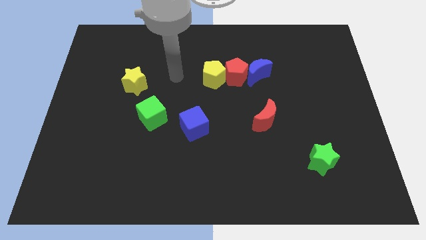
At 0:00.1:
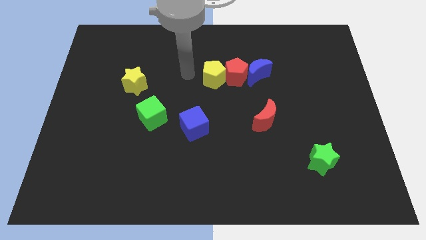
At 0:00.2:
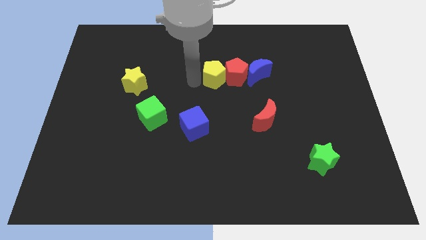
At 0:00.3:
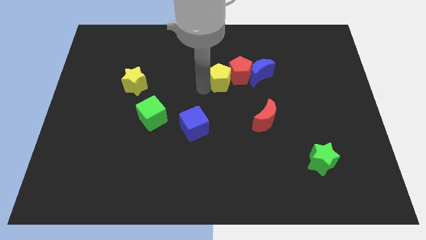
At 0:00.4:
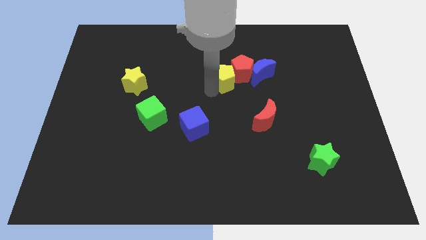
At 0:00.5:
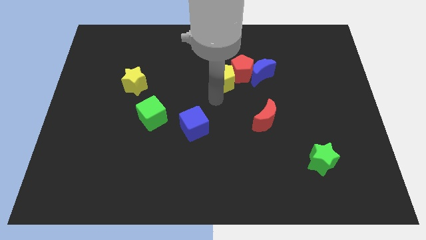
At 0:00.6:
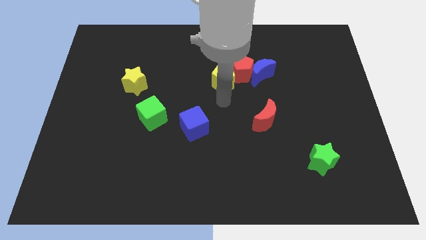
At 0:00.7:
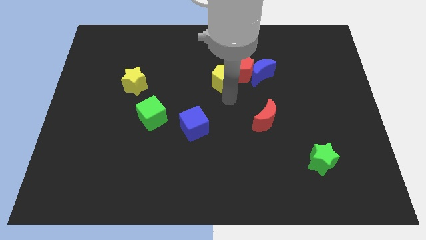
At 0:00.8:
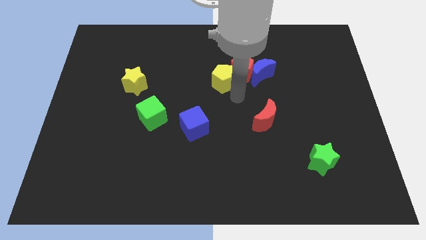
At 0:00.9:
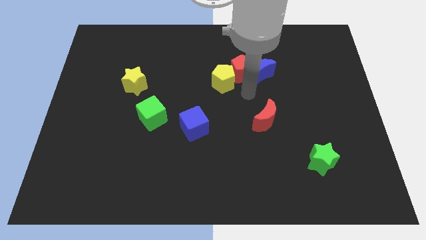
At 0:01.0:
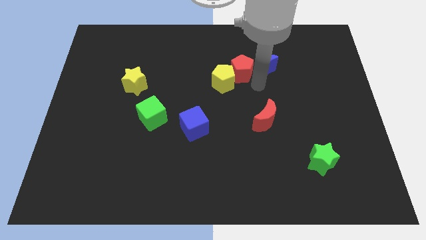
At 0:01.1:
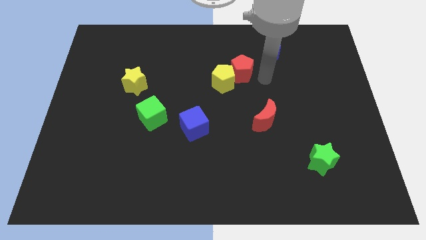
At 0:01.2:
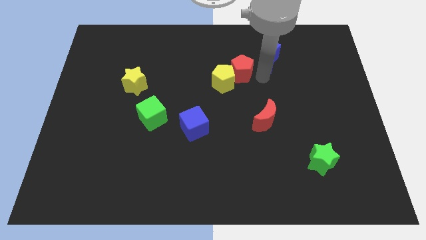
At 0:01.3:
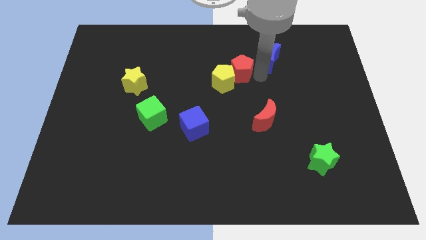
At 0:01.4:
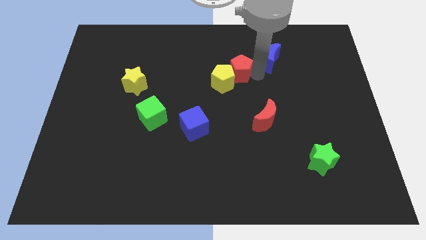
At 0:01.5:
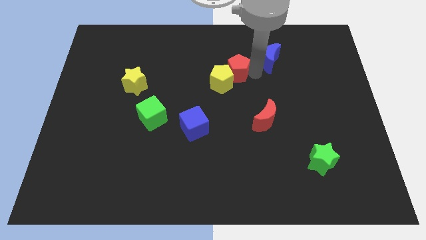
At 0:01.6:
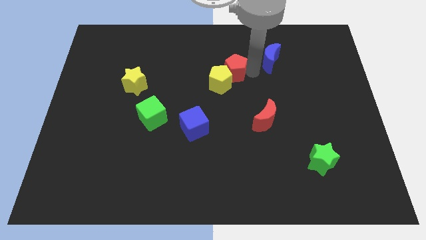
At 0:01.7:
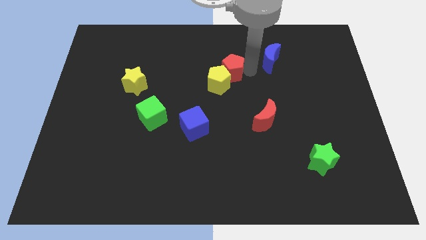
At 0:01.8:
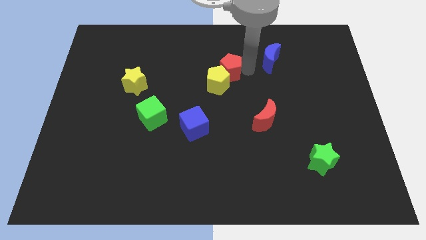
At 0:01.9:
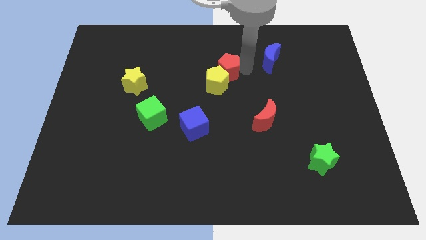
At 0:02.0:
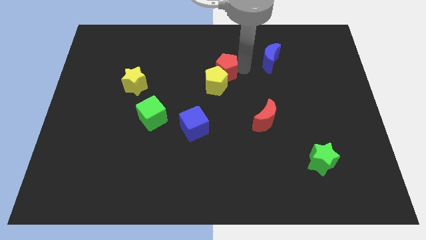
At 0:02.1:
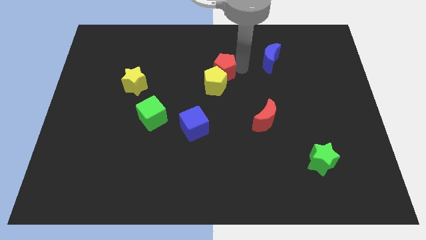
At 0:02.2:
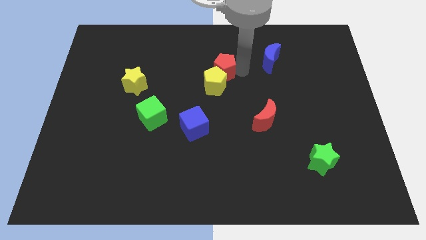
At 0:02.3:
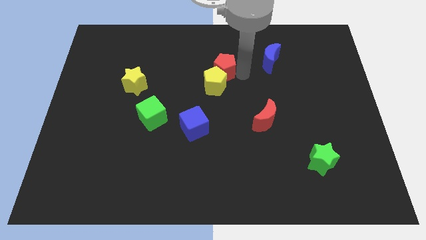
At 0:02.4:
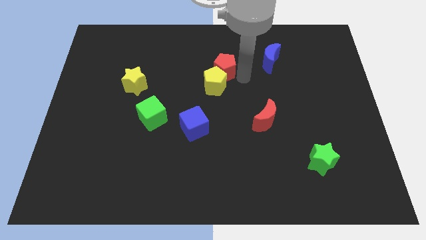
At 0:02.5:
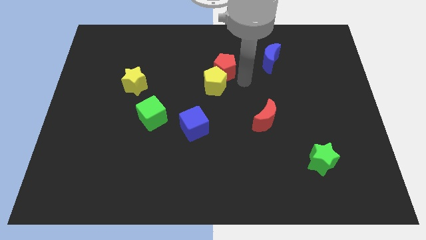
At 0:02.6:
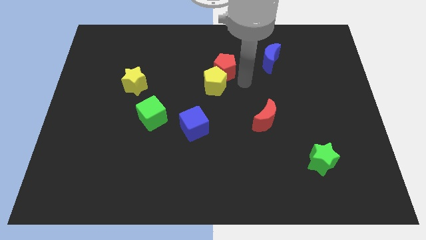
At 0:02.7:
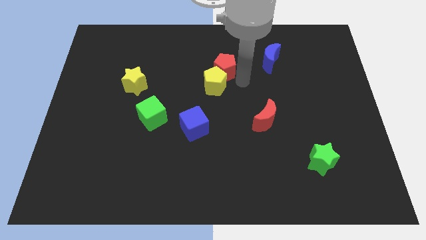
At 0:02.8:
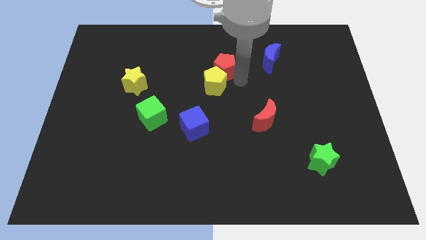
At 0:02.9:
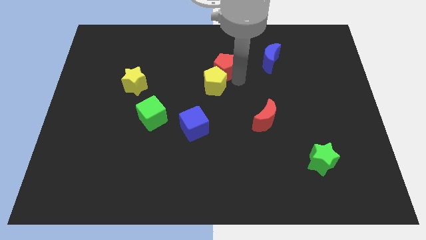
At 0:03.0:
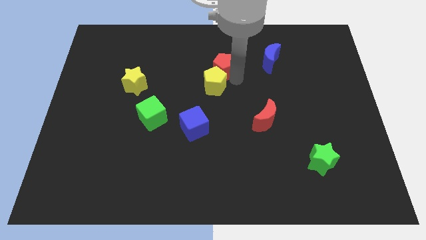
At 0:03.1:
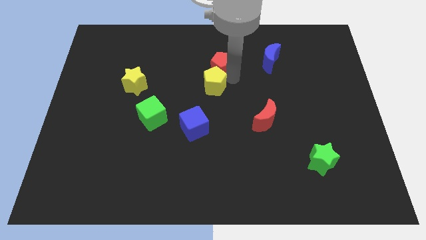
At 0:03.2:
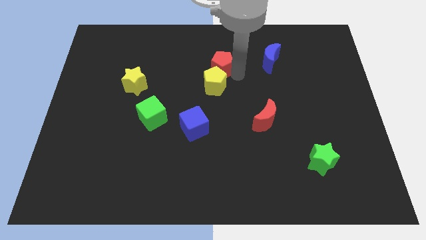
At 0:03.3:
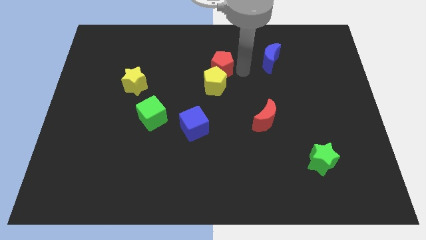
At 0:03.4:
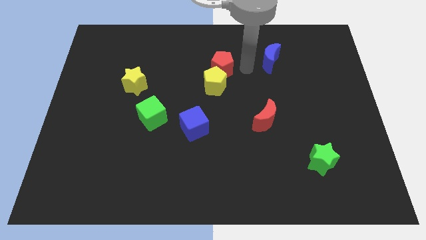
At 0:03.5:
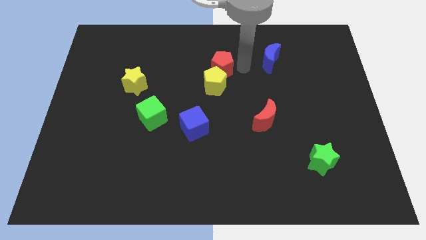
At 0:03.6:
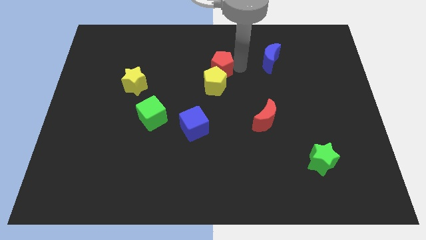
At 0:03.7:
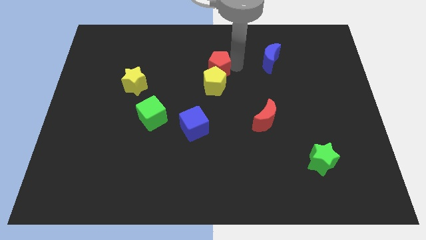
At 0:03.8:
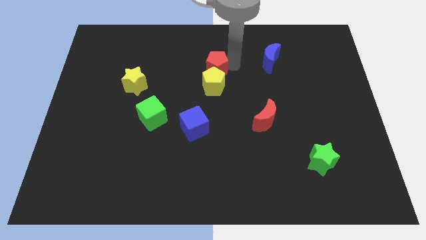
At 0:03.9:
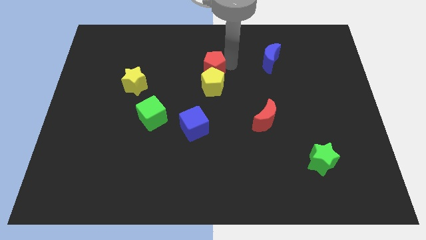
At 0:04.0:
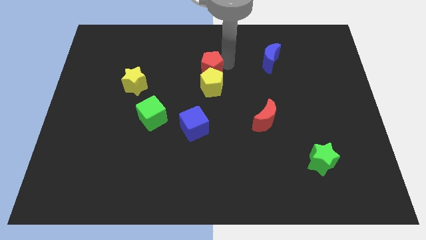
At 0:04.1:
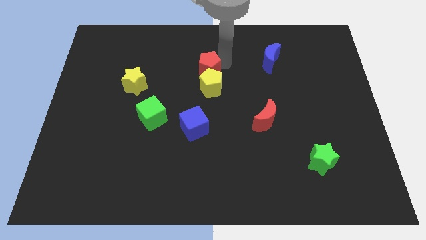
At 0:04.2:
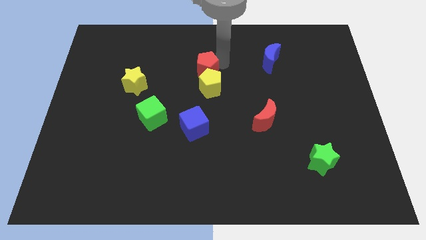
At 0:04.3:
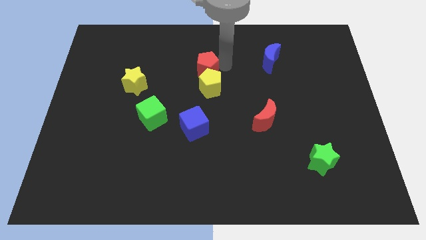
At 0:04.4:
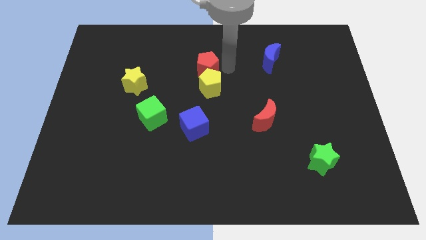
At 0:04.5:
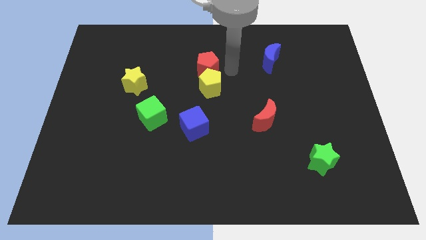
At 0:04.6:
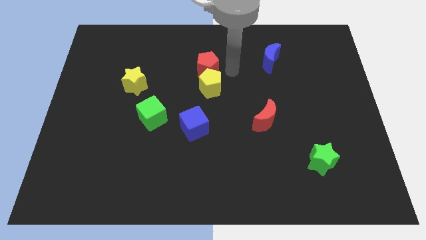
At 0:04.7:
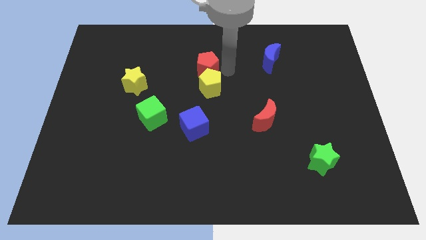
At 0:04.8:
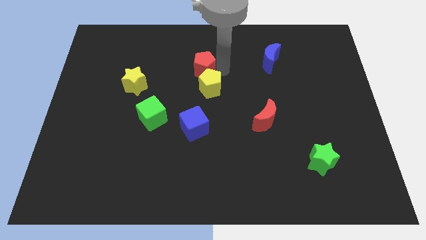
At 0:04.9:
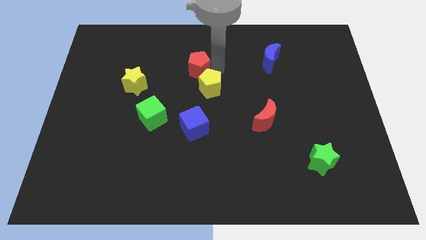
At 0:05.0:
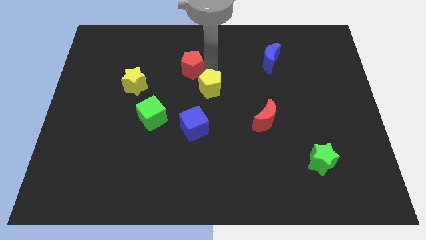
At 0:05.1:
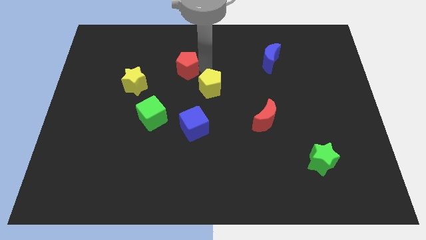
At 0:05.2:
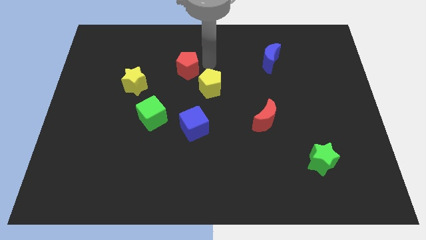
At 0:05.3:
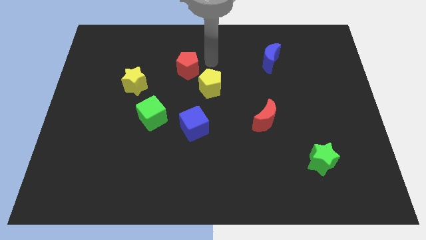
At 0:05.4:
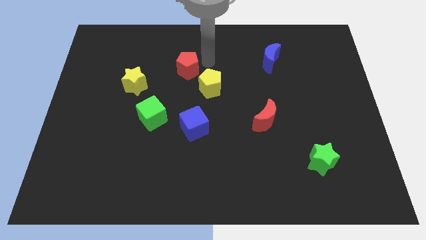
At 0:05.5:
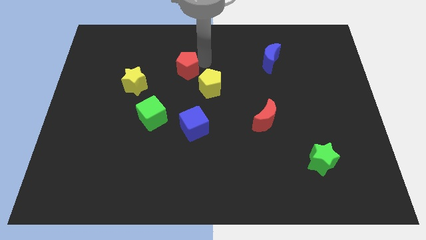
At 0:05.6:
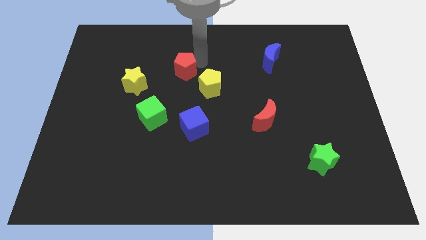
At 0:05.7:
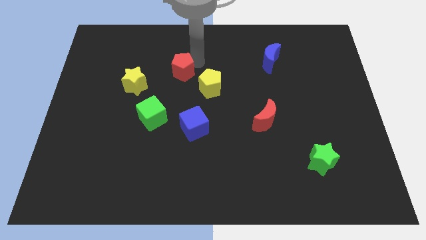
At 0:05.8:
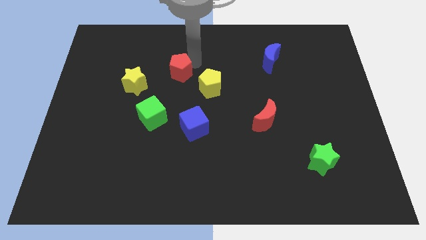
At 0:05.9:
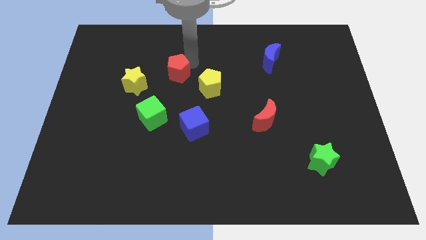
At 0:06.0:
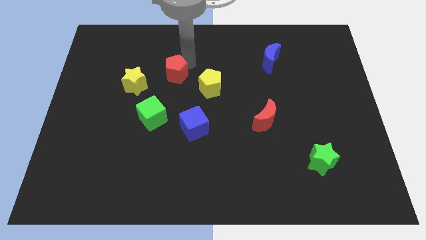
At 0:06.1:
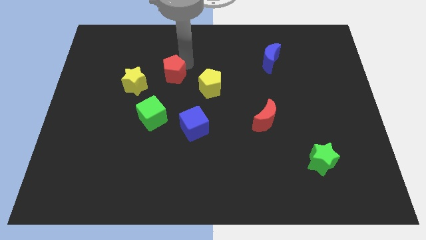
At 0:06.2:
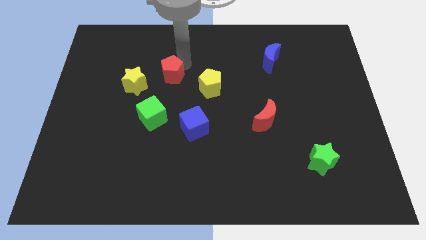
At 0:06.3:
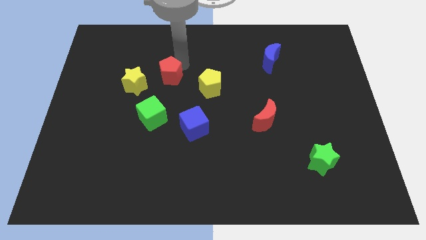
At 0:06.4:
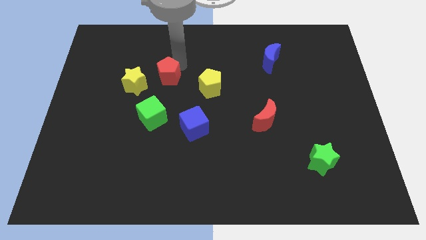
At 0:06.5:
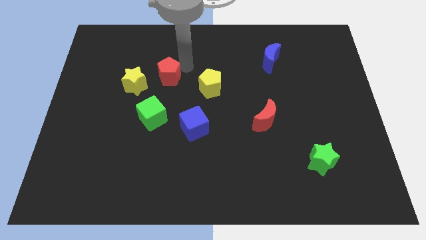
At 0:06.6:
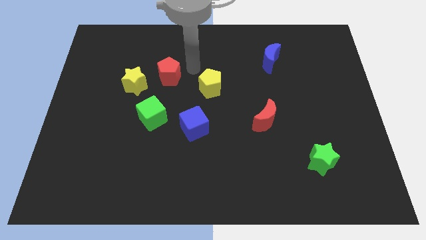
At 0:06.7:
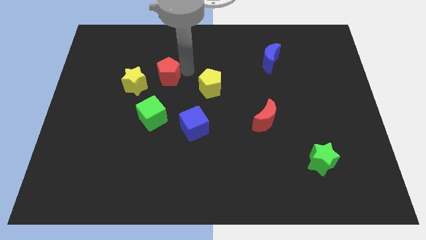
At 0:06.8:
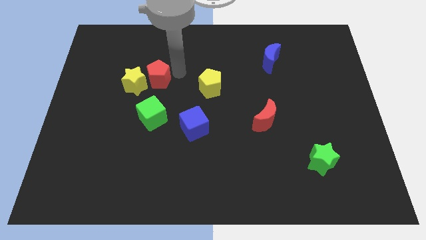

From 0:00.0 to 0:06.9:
push the red pentagon close to the yellow star

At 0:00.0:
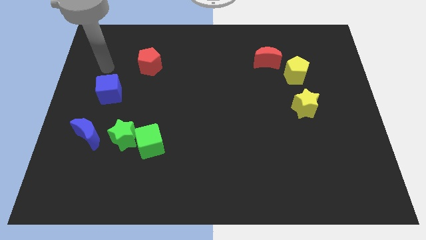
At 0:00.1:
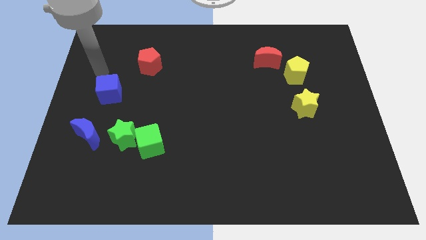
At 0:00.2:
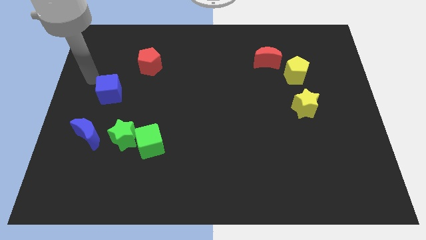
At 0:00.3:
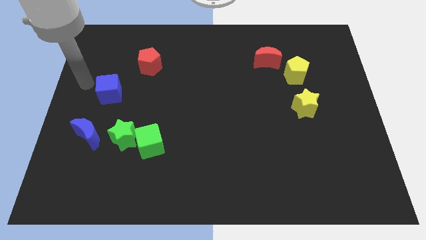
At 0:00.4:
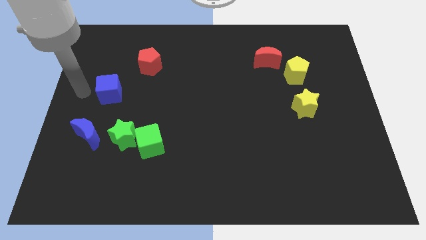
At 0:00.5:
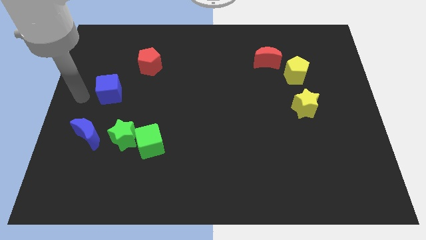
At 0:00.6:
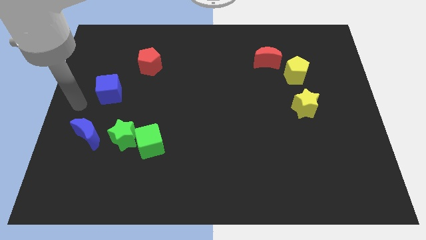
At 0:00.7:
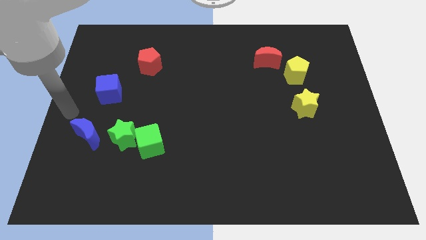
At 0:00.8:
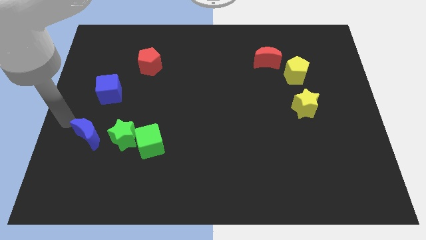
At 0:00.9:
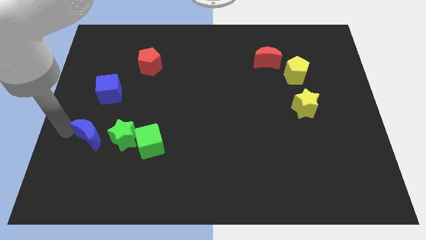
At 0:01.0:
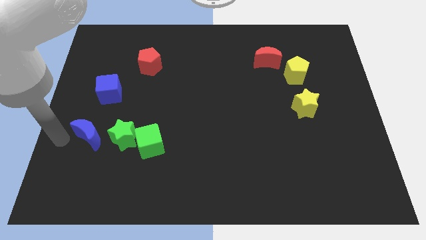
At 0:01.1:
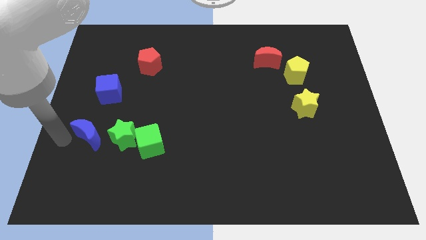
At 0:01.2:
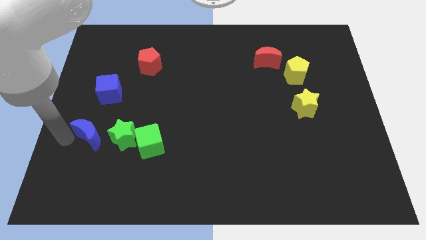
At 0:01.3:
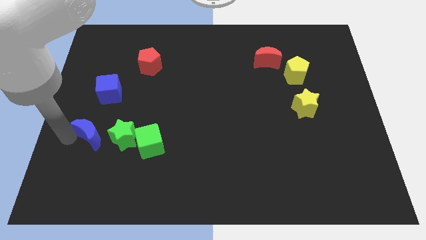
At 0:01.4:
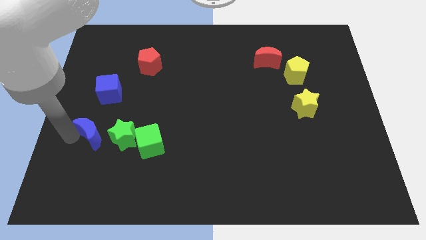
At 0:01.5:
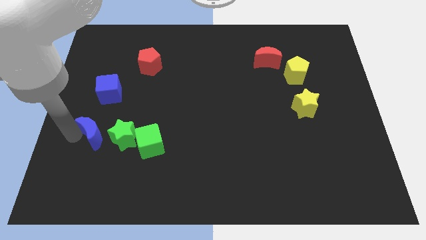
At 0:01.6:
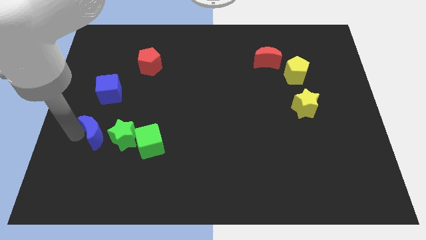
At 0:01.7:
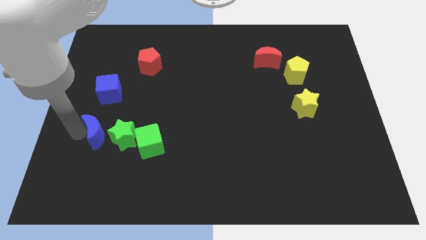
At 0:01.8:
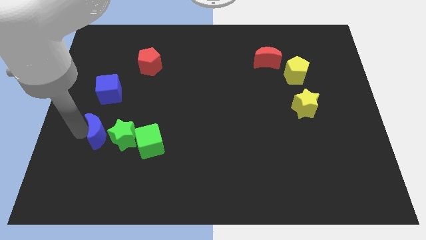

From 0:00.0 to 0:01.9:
slide the blue moon close to the green star
